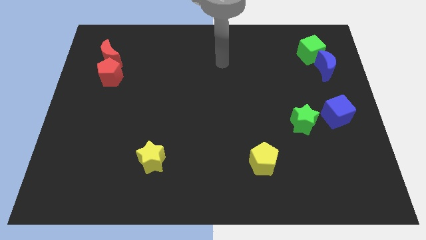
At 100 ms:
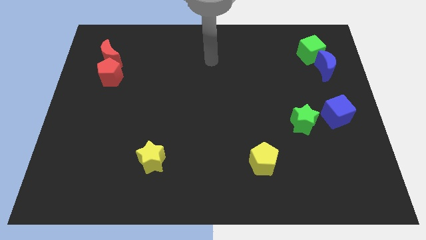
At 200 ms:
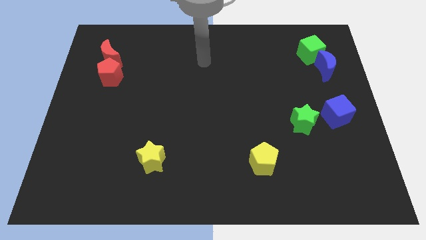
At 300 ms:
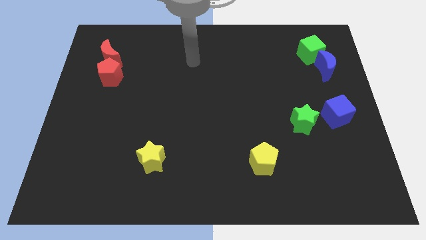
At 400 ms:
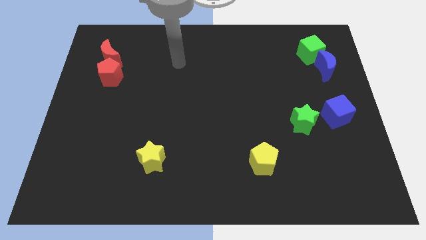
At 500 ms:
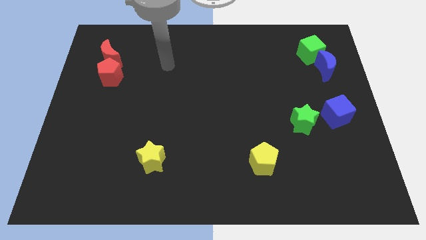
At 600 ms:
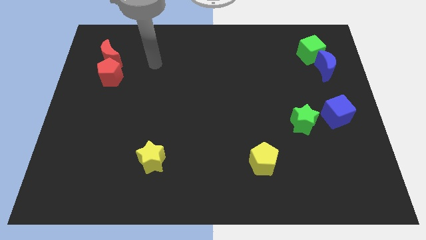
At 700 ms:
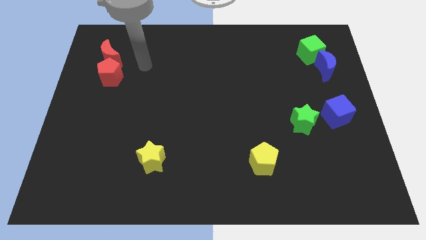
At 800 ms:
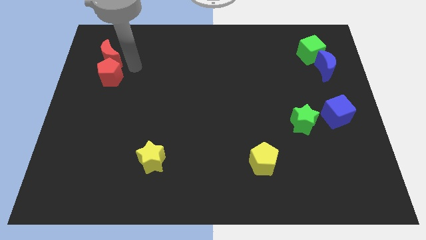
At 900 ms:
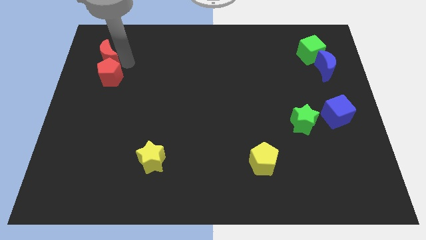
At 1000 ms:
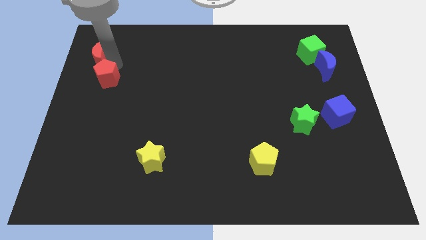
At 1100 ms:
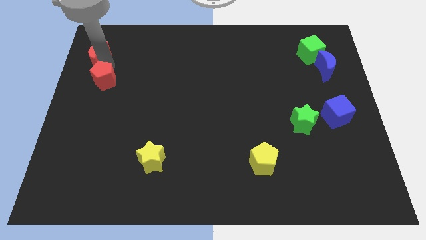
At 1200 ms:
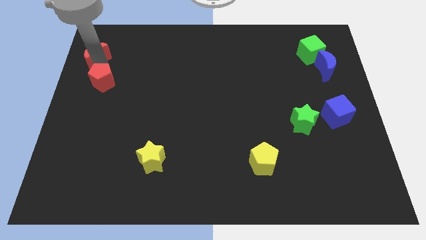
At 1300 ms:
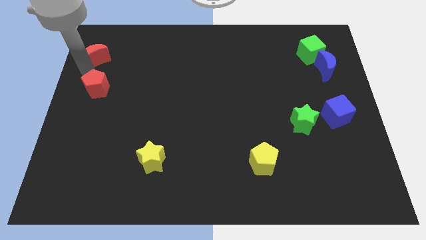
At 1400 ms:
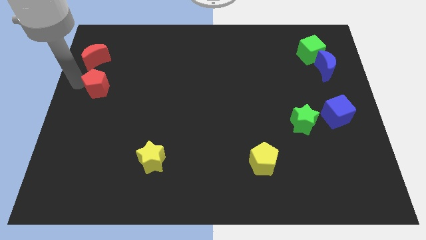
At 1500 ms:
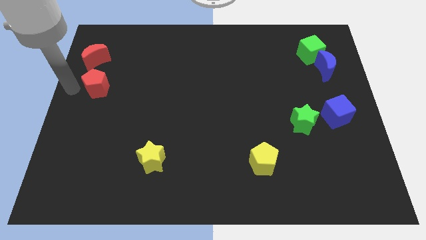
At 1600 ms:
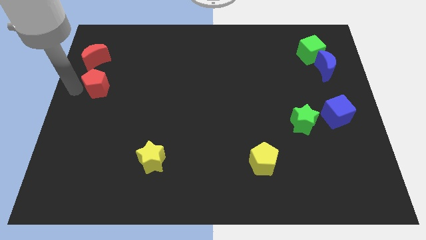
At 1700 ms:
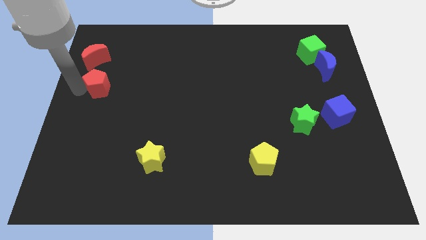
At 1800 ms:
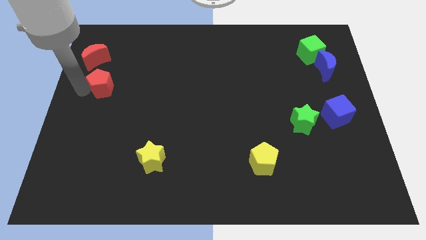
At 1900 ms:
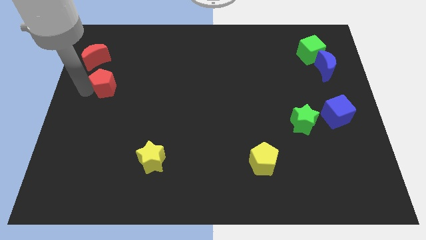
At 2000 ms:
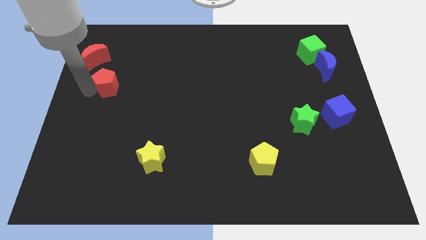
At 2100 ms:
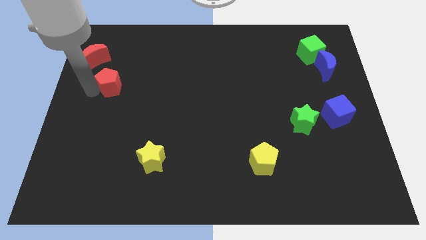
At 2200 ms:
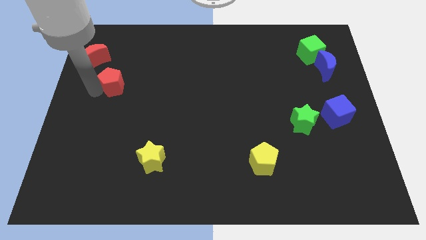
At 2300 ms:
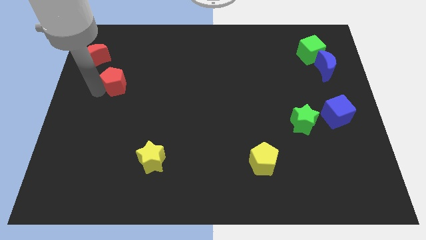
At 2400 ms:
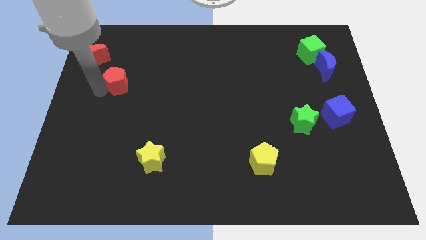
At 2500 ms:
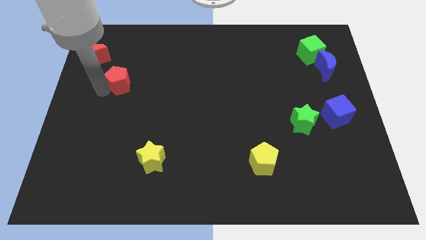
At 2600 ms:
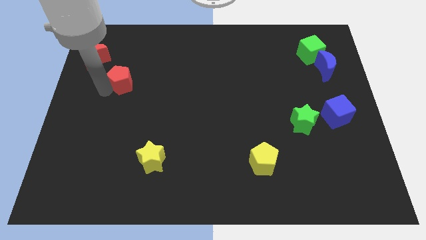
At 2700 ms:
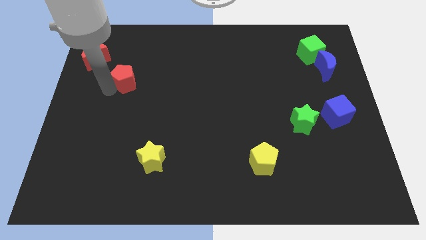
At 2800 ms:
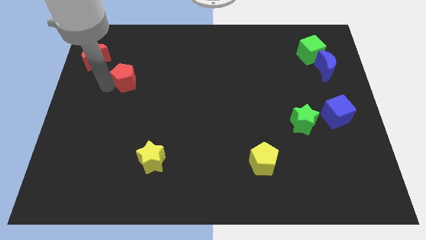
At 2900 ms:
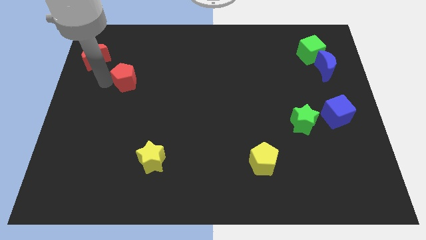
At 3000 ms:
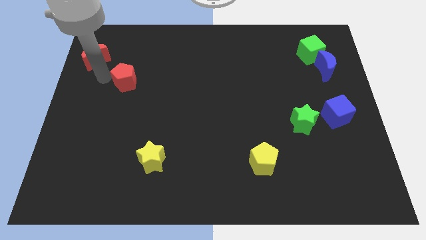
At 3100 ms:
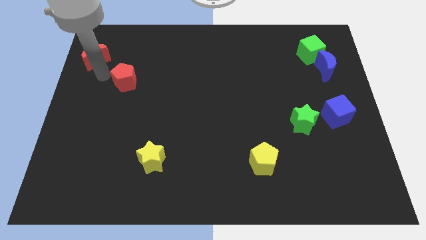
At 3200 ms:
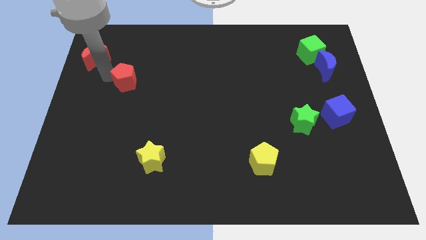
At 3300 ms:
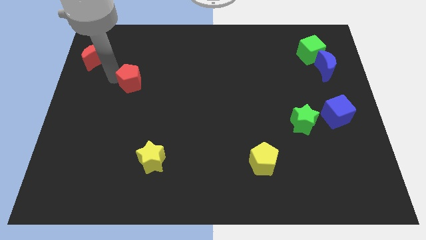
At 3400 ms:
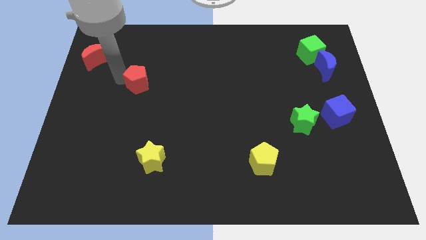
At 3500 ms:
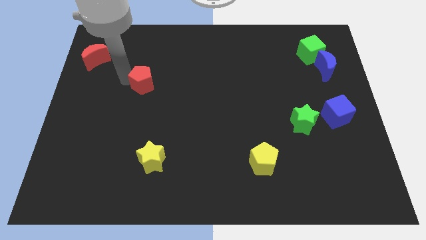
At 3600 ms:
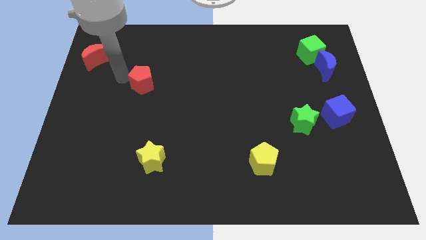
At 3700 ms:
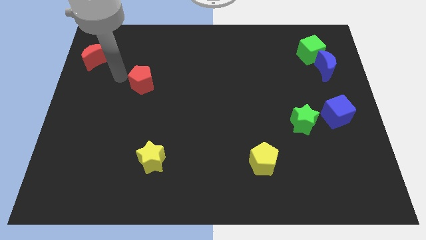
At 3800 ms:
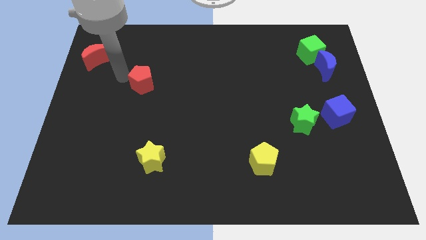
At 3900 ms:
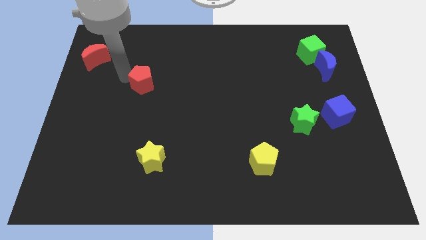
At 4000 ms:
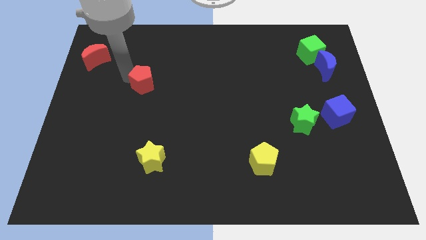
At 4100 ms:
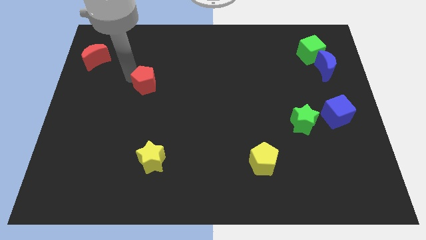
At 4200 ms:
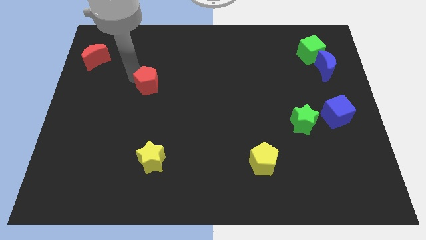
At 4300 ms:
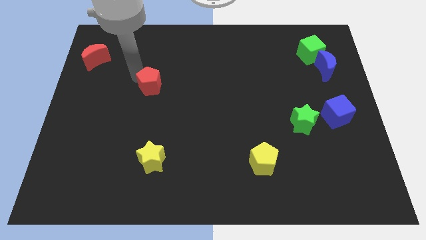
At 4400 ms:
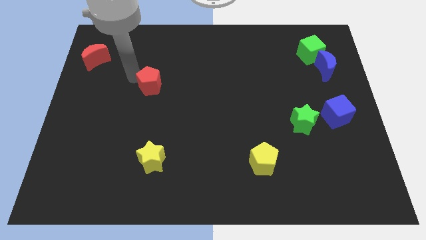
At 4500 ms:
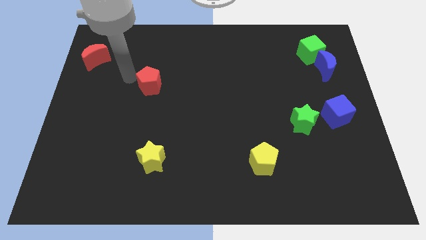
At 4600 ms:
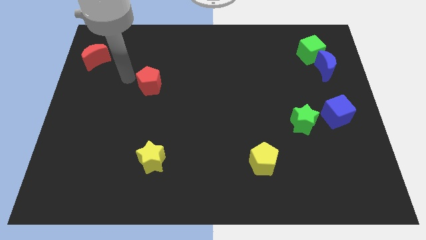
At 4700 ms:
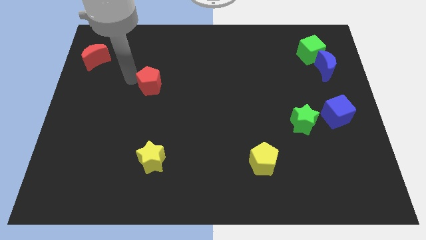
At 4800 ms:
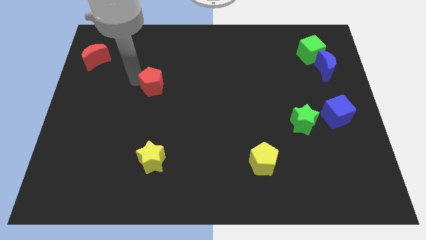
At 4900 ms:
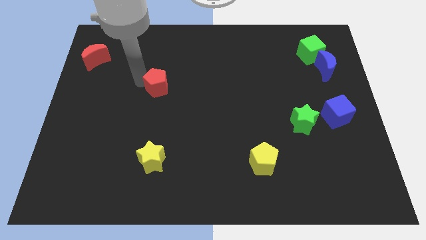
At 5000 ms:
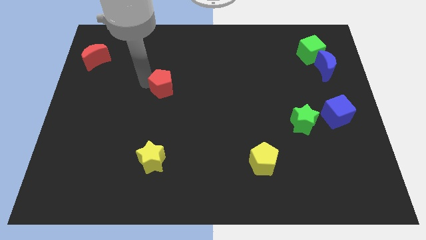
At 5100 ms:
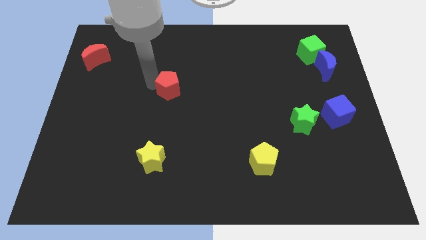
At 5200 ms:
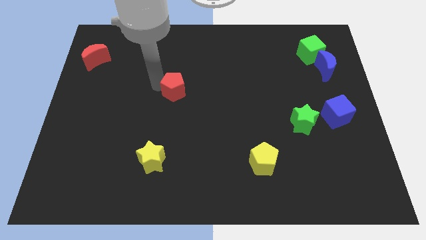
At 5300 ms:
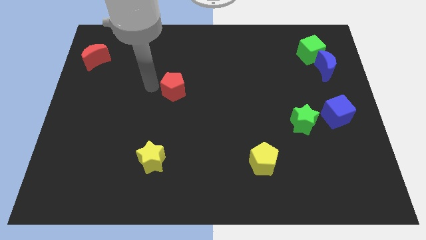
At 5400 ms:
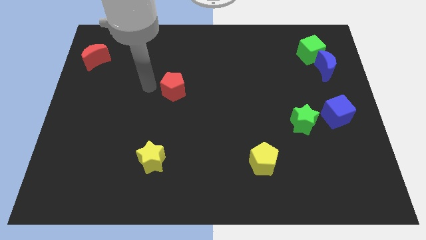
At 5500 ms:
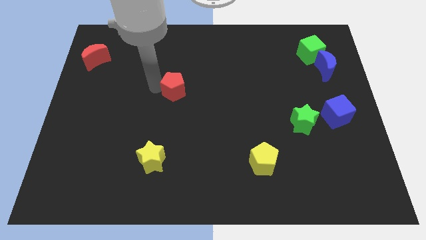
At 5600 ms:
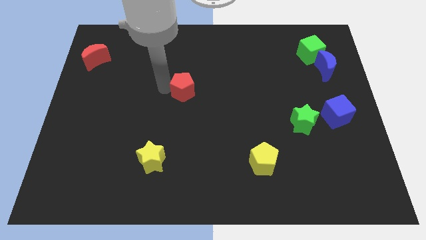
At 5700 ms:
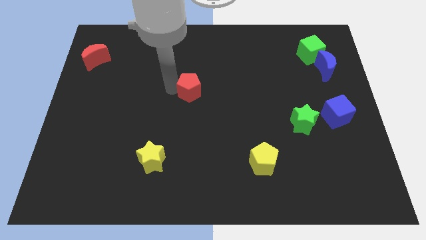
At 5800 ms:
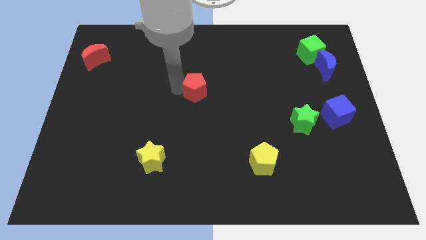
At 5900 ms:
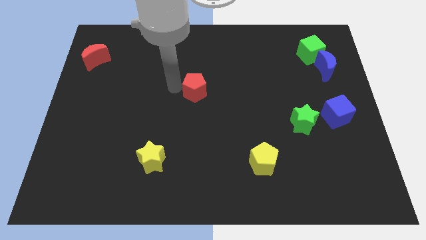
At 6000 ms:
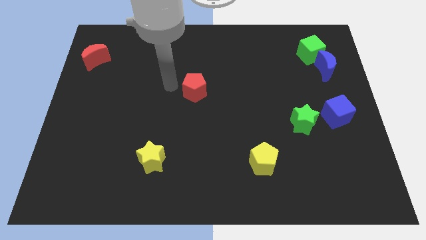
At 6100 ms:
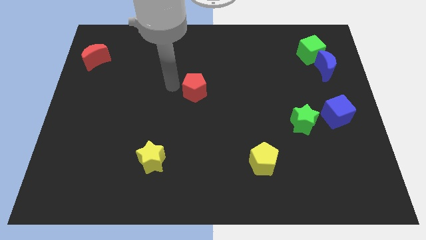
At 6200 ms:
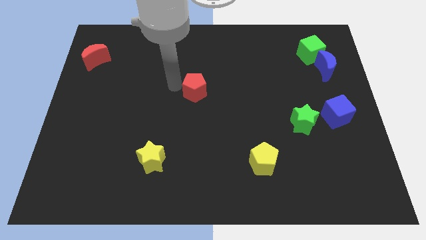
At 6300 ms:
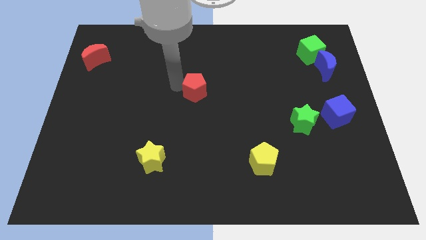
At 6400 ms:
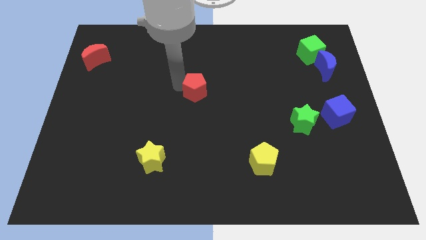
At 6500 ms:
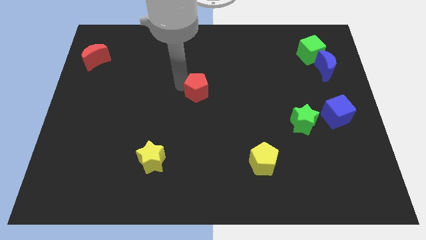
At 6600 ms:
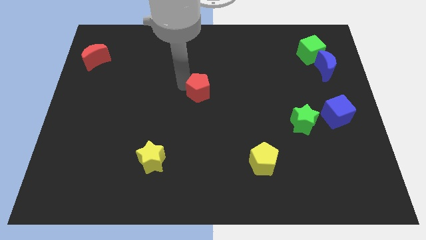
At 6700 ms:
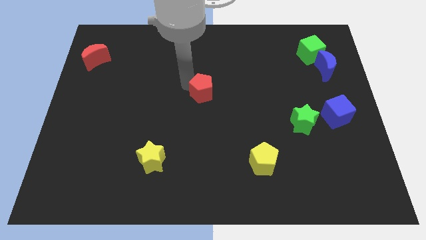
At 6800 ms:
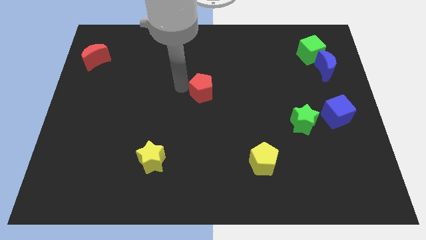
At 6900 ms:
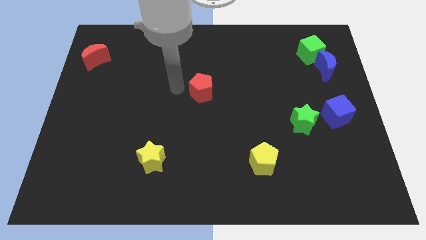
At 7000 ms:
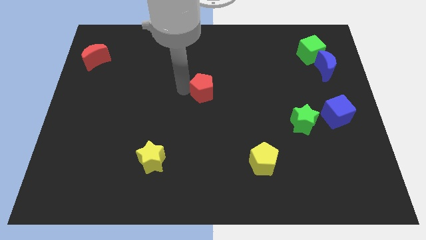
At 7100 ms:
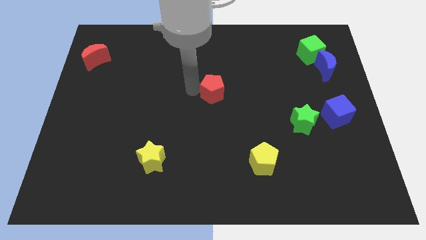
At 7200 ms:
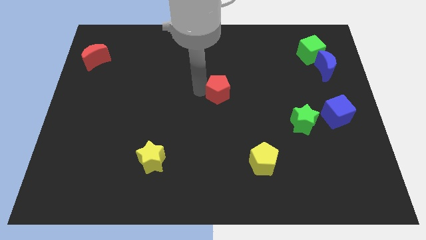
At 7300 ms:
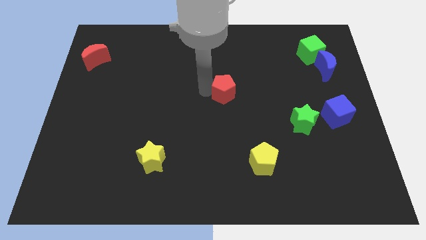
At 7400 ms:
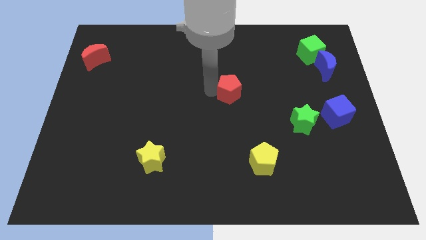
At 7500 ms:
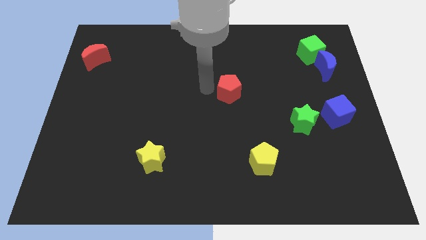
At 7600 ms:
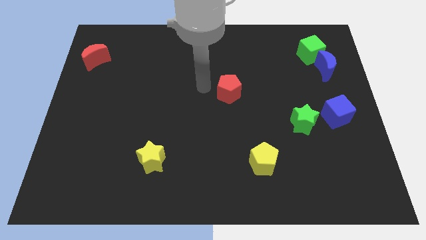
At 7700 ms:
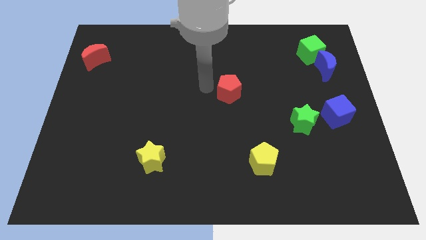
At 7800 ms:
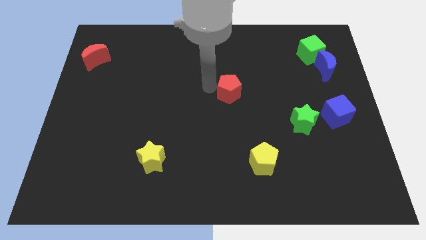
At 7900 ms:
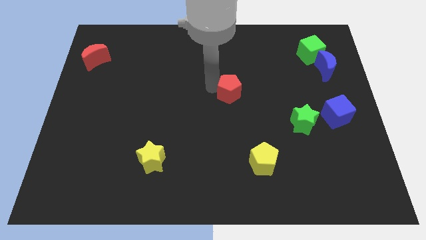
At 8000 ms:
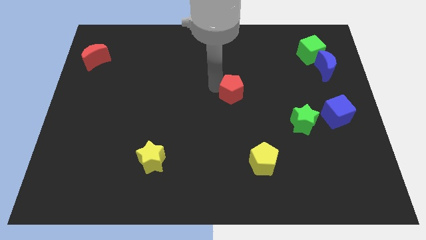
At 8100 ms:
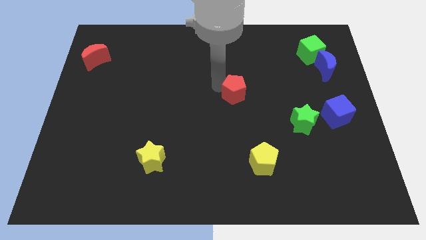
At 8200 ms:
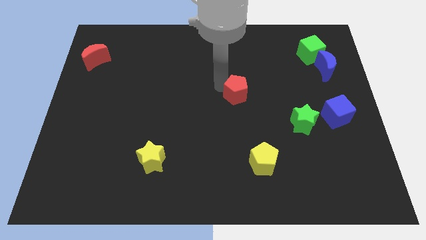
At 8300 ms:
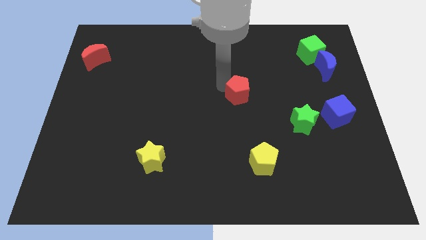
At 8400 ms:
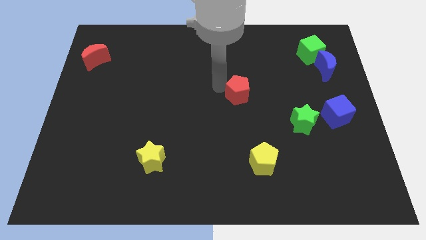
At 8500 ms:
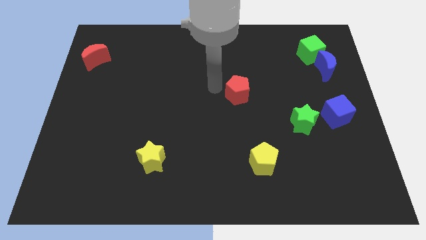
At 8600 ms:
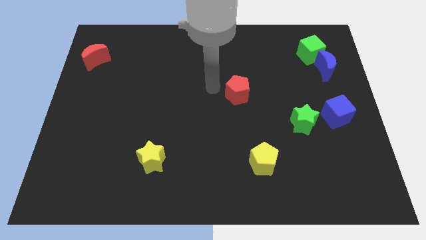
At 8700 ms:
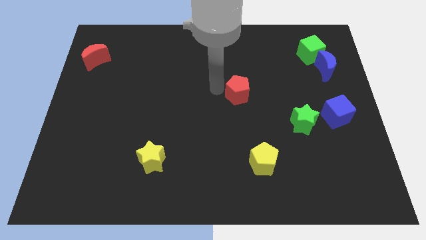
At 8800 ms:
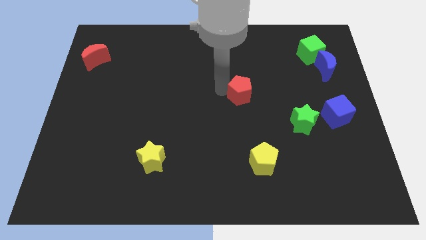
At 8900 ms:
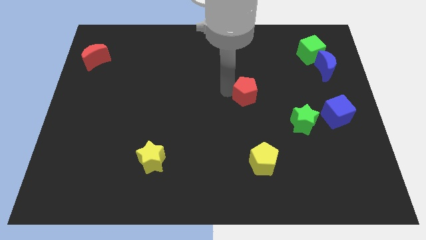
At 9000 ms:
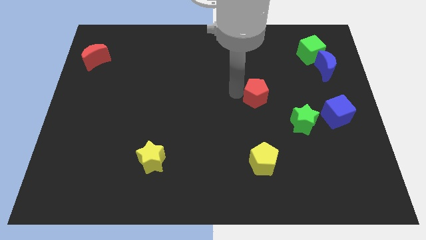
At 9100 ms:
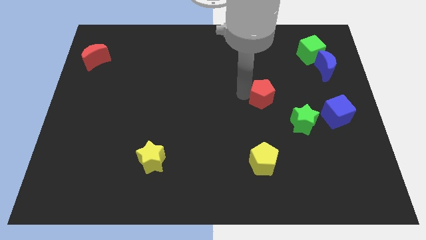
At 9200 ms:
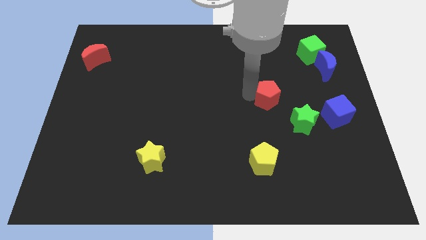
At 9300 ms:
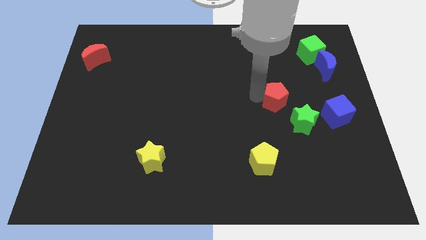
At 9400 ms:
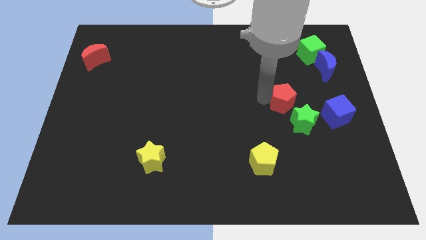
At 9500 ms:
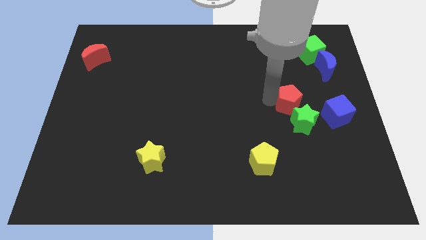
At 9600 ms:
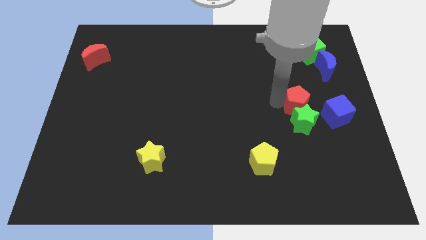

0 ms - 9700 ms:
slide the red pentagon diagonally up and to the left of the blue cube
